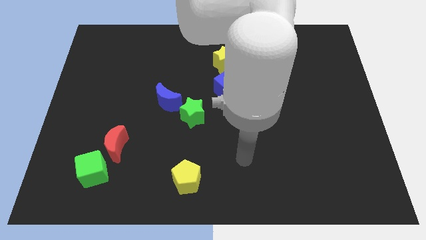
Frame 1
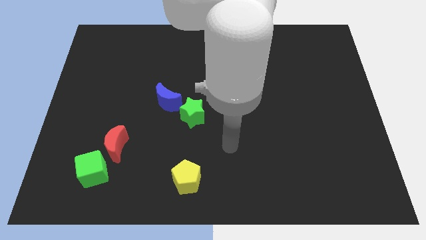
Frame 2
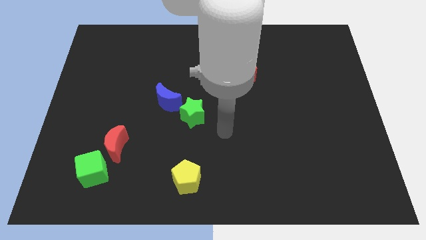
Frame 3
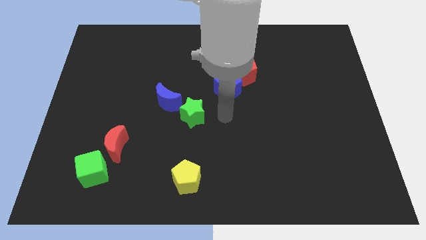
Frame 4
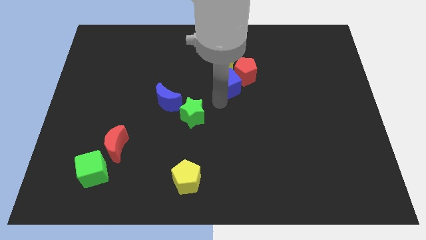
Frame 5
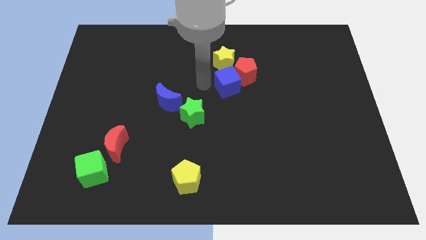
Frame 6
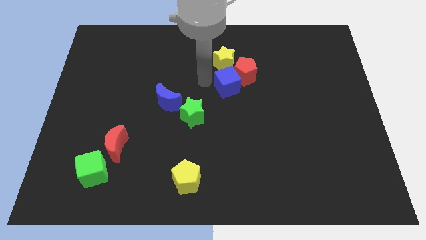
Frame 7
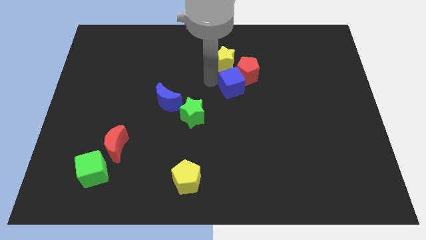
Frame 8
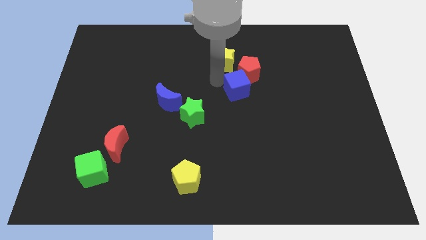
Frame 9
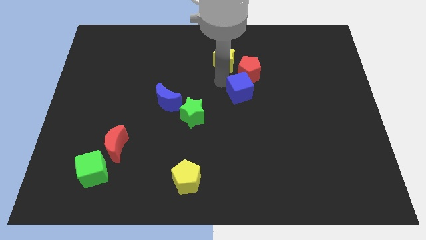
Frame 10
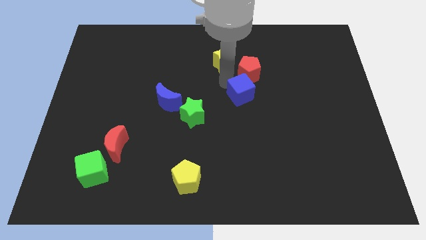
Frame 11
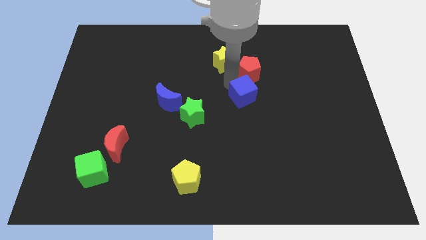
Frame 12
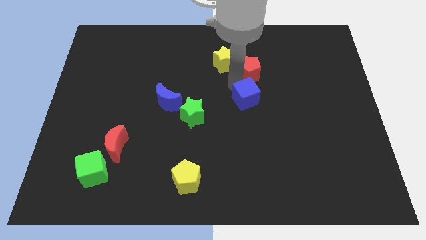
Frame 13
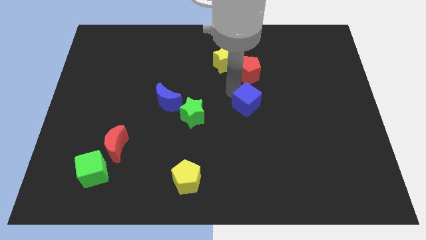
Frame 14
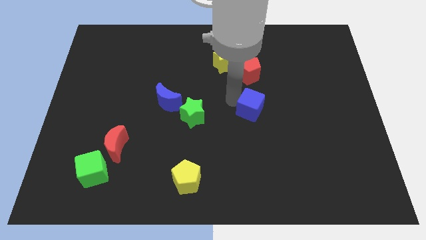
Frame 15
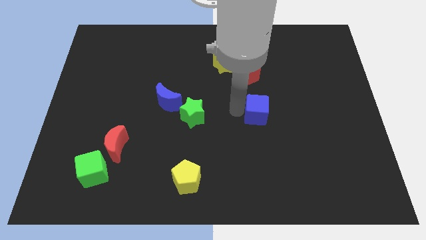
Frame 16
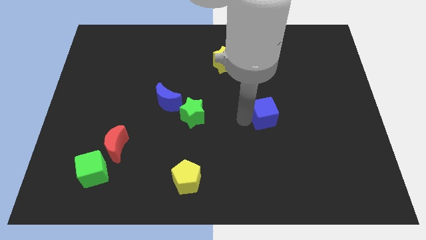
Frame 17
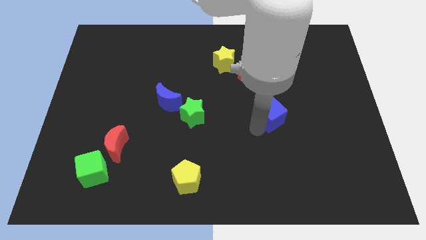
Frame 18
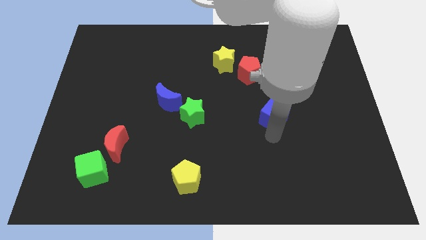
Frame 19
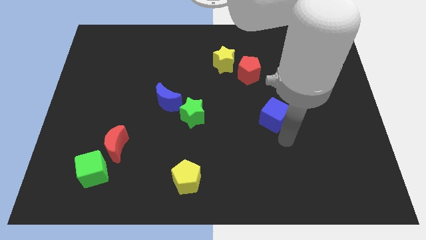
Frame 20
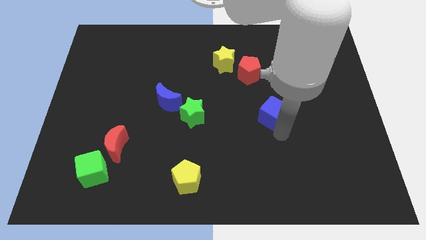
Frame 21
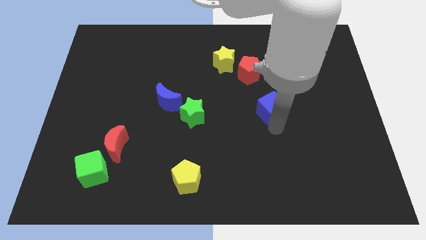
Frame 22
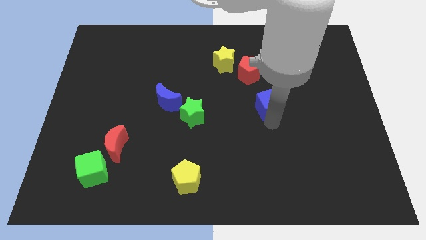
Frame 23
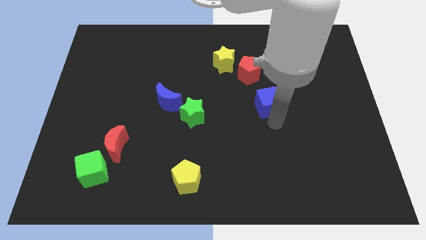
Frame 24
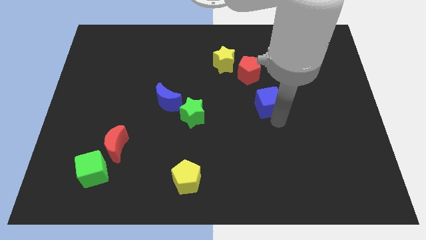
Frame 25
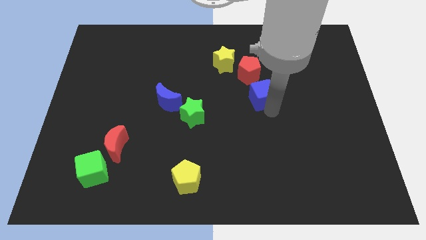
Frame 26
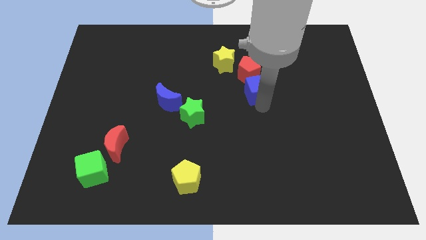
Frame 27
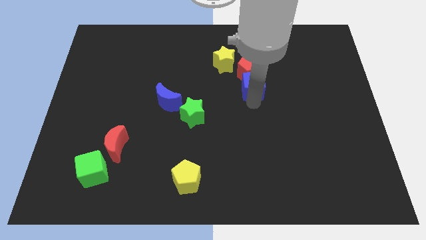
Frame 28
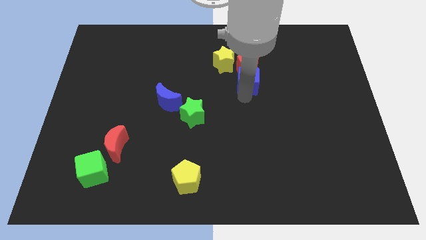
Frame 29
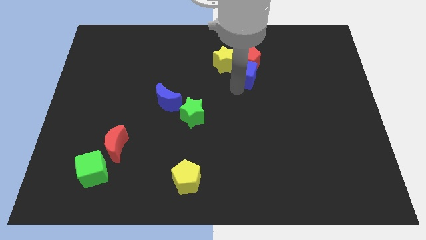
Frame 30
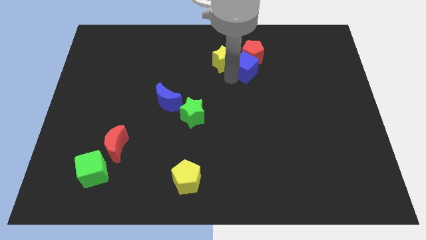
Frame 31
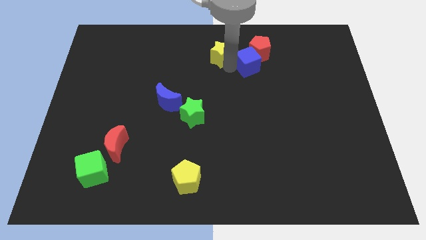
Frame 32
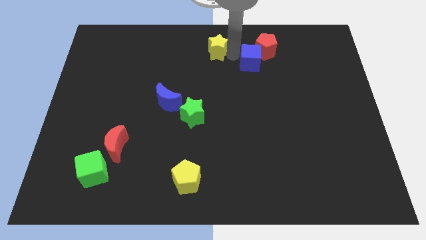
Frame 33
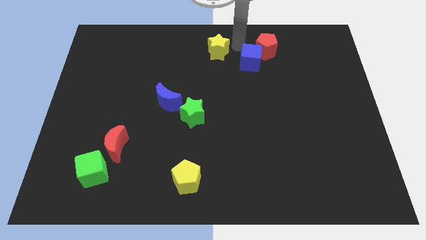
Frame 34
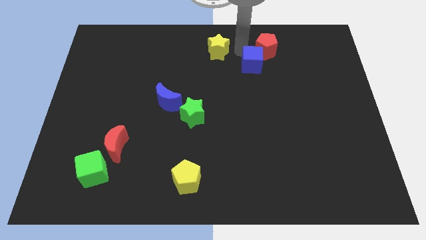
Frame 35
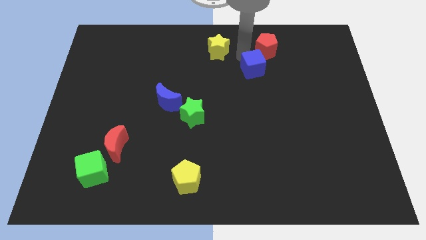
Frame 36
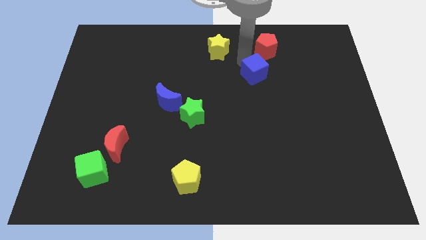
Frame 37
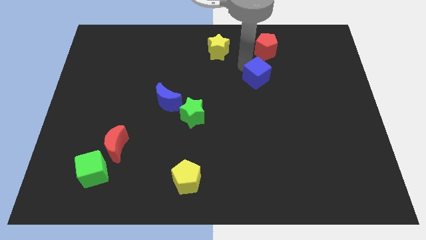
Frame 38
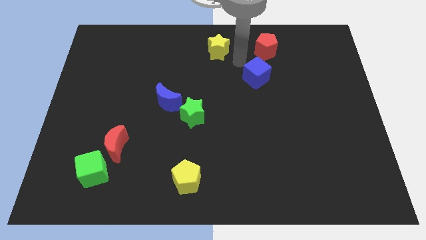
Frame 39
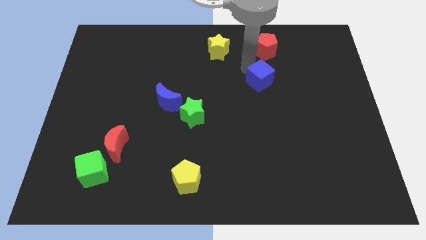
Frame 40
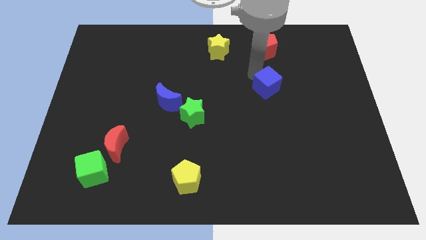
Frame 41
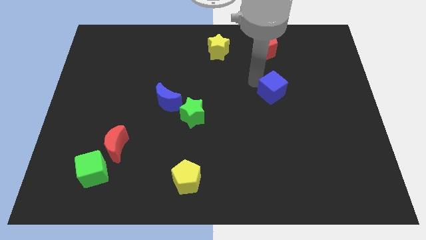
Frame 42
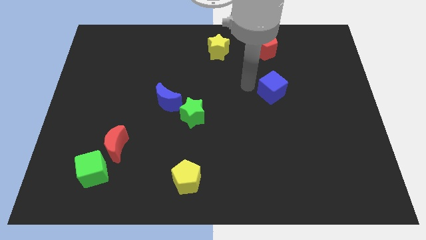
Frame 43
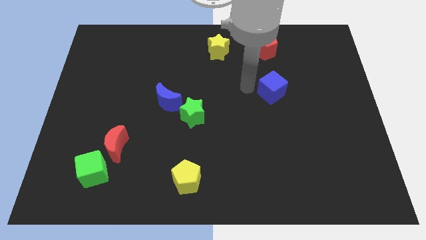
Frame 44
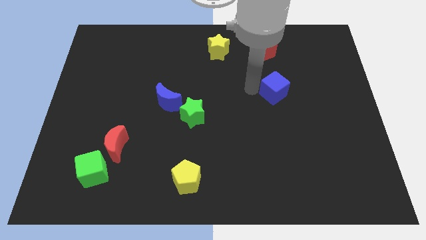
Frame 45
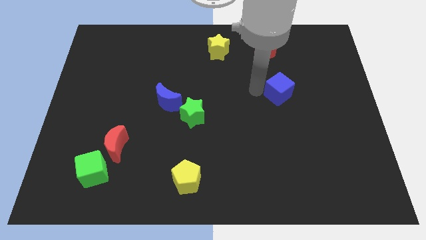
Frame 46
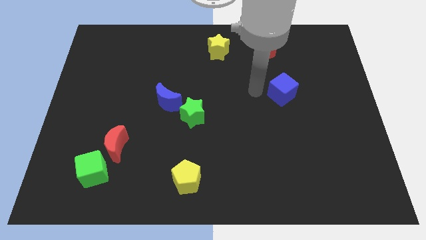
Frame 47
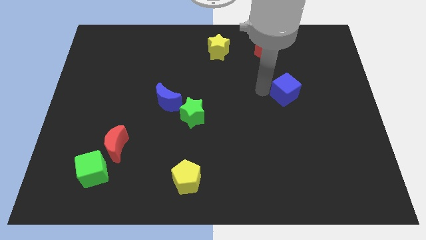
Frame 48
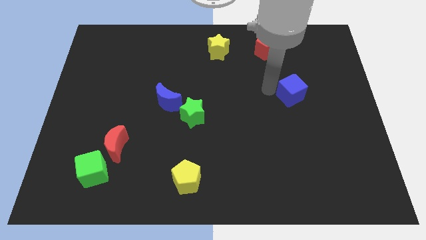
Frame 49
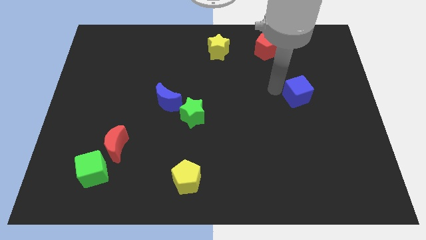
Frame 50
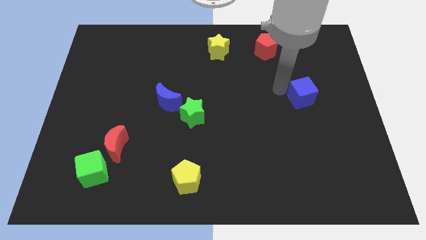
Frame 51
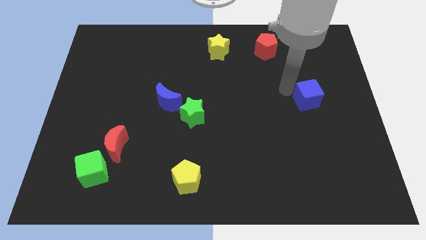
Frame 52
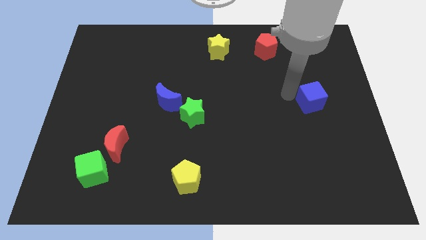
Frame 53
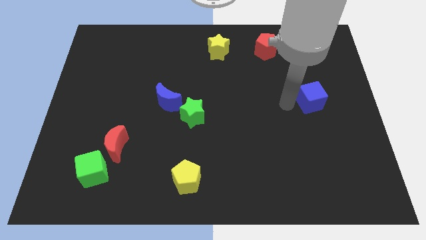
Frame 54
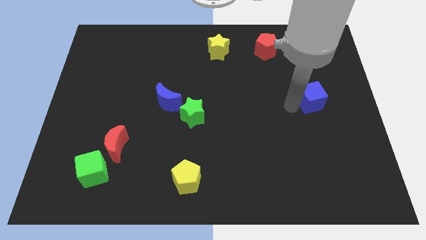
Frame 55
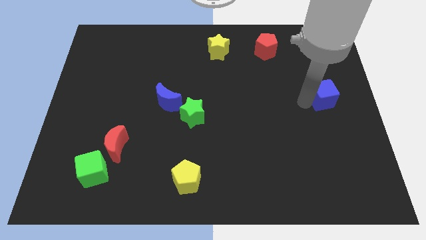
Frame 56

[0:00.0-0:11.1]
move the blue cube to the center right

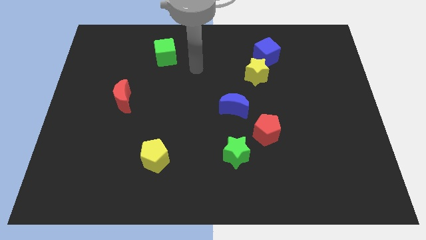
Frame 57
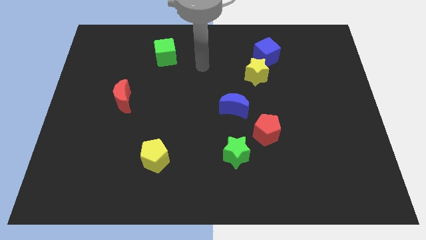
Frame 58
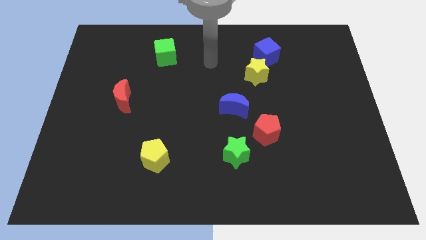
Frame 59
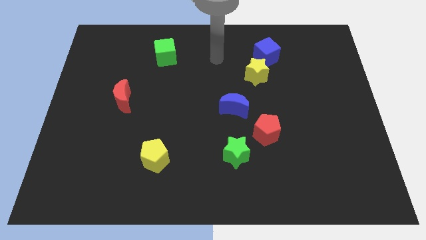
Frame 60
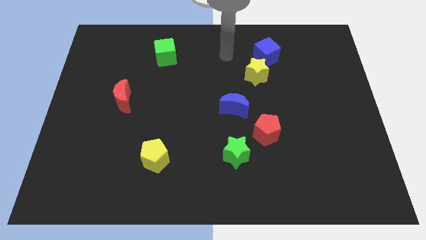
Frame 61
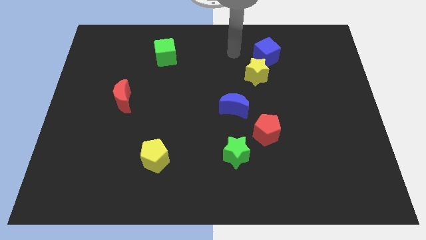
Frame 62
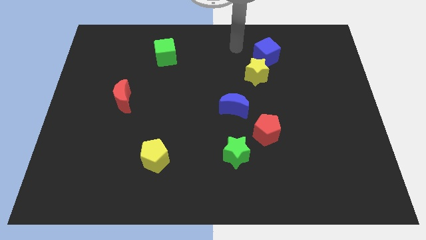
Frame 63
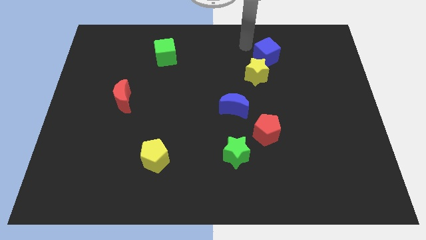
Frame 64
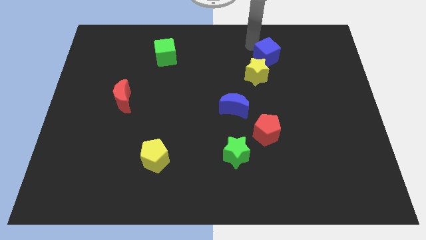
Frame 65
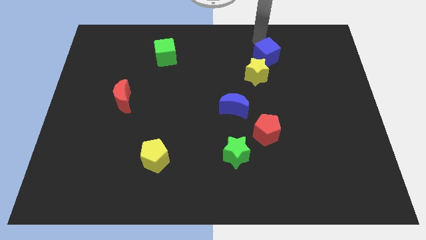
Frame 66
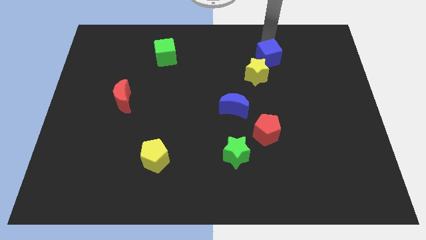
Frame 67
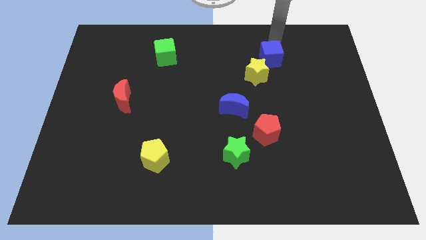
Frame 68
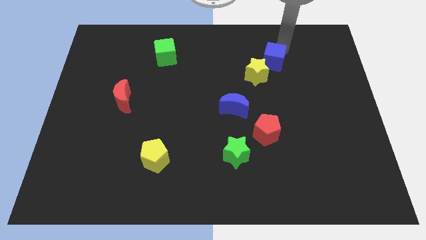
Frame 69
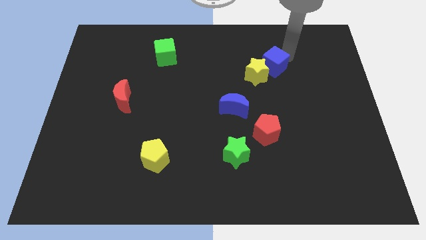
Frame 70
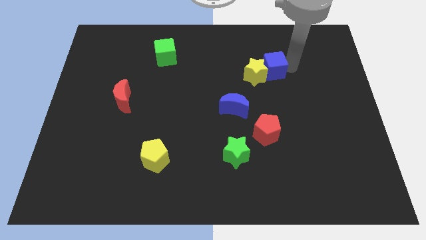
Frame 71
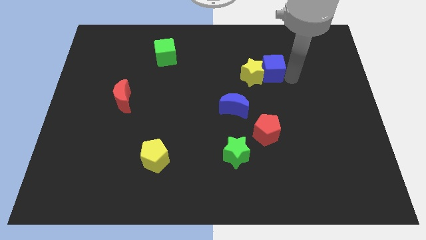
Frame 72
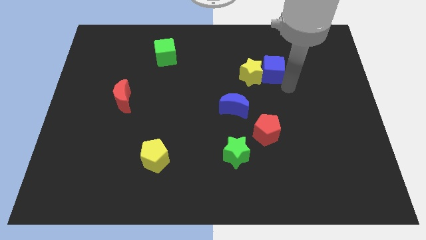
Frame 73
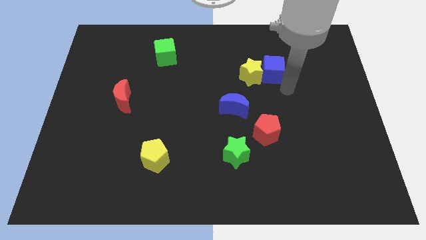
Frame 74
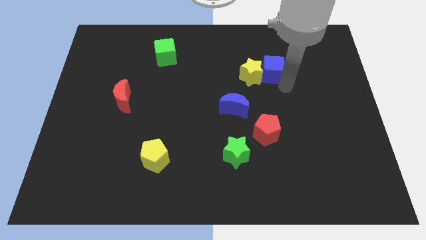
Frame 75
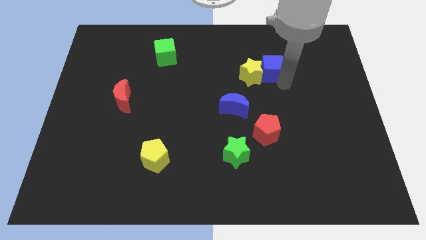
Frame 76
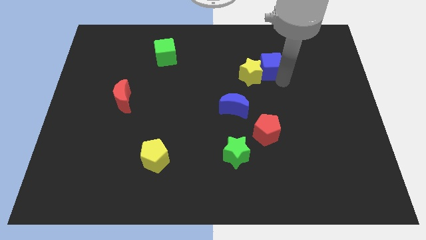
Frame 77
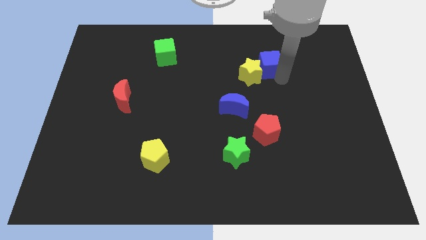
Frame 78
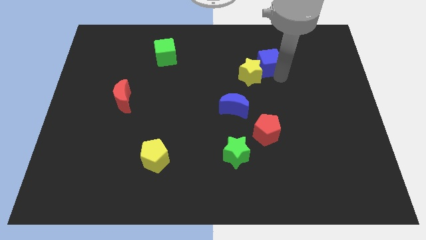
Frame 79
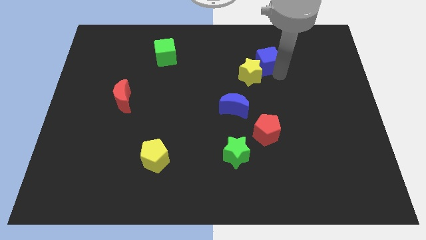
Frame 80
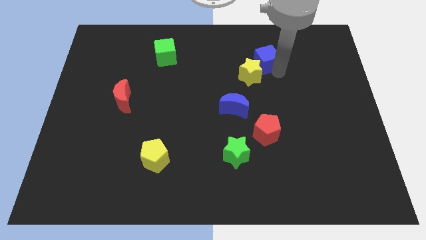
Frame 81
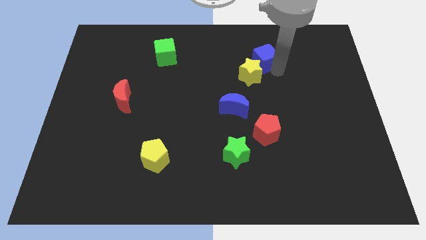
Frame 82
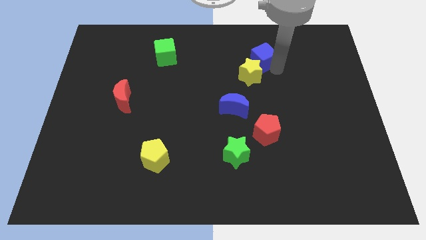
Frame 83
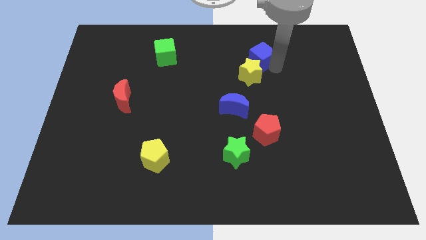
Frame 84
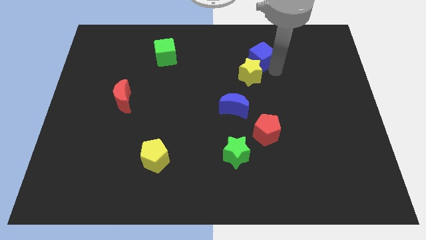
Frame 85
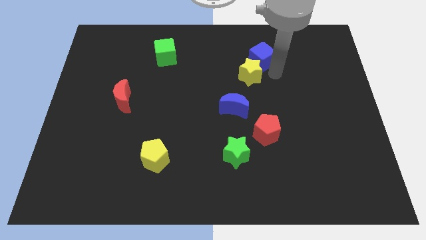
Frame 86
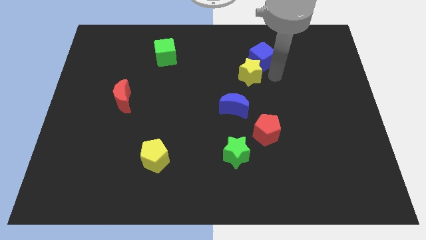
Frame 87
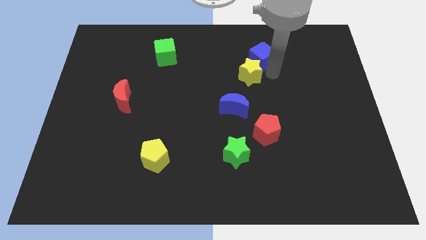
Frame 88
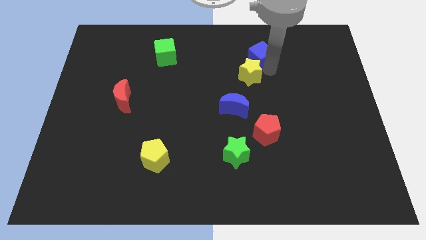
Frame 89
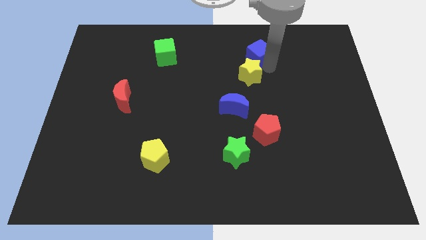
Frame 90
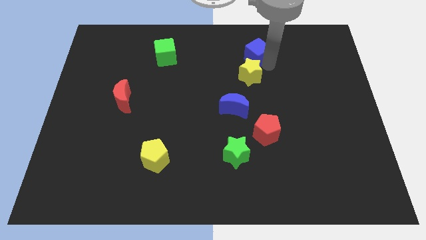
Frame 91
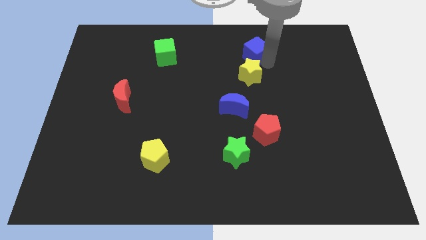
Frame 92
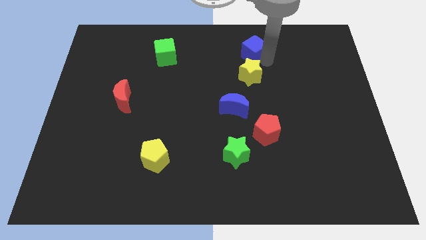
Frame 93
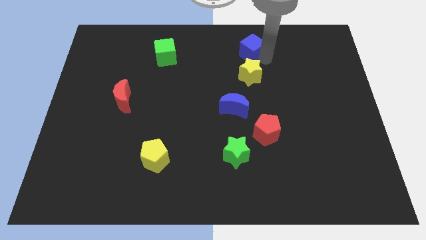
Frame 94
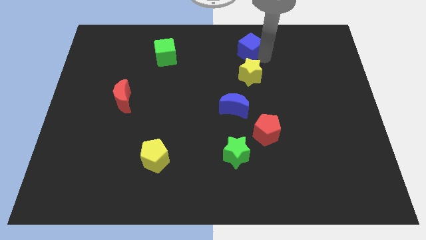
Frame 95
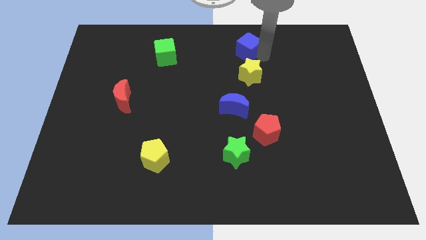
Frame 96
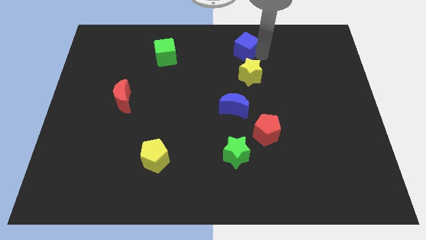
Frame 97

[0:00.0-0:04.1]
move the blue cube to the top side
